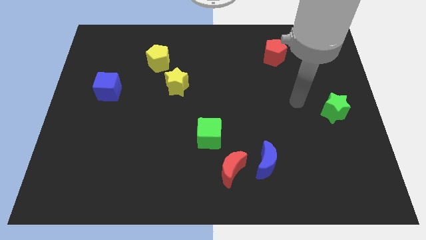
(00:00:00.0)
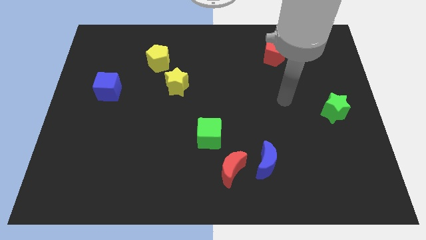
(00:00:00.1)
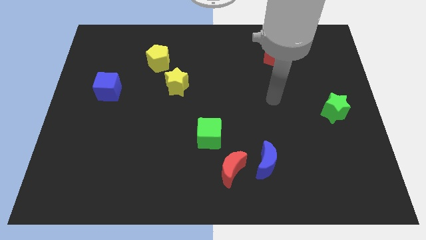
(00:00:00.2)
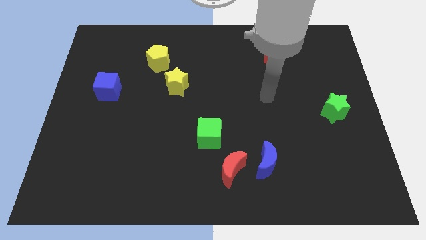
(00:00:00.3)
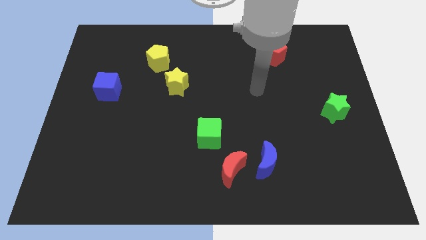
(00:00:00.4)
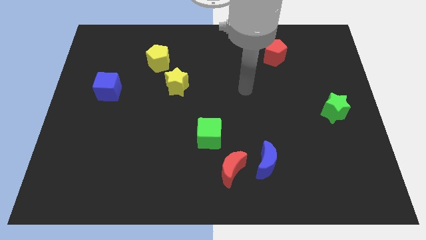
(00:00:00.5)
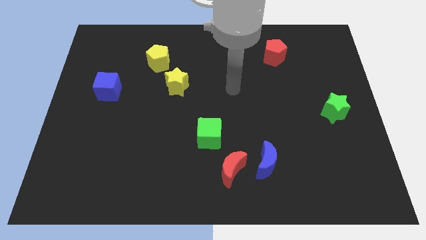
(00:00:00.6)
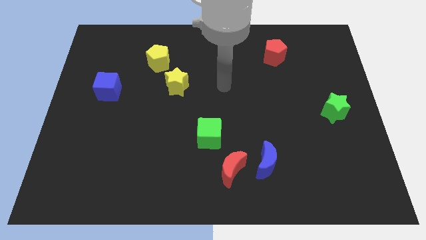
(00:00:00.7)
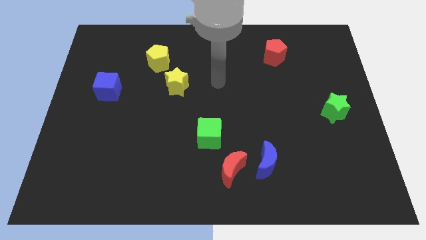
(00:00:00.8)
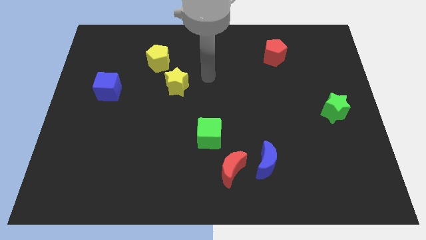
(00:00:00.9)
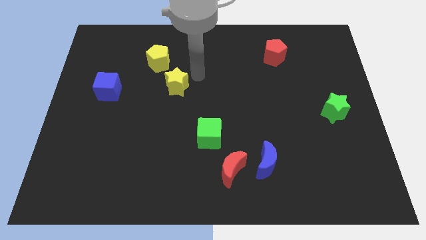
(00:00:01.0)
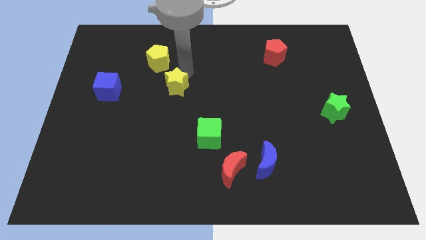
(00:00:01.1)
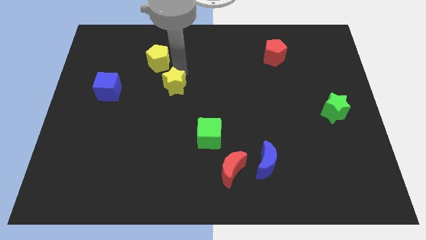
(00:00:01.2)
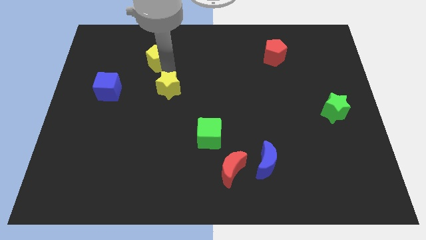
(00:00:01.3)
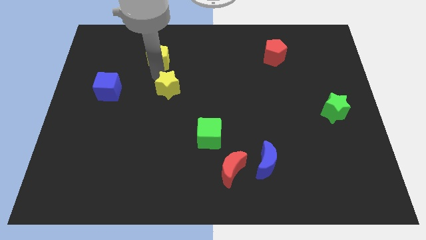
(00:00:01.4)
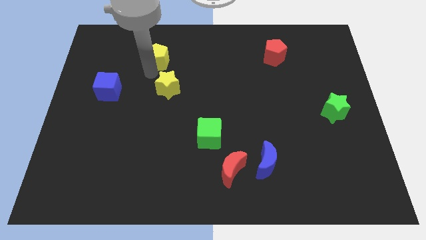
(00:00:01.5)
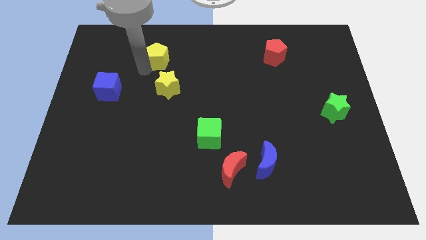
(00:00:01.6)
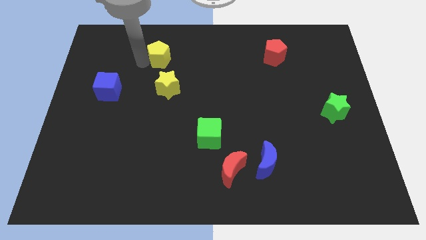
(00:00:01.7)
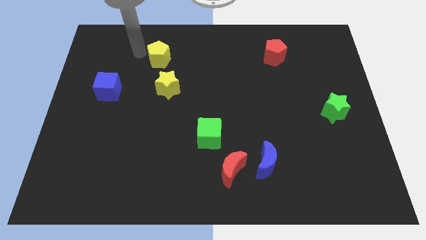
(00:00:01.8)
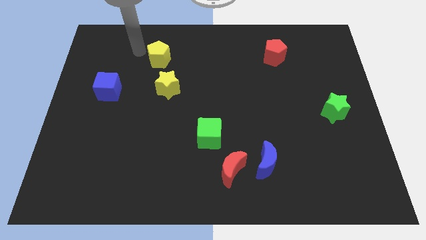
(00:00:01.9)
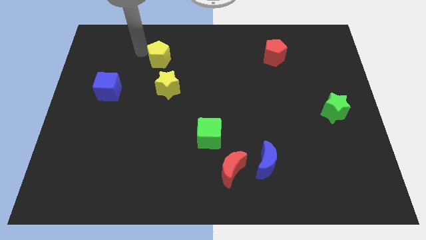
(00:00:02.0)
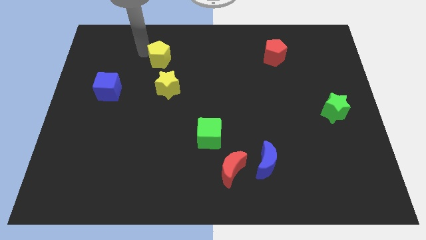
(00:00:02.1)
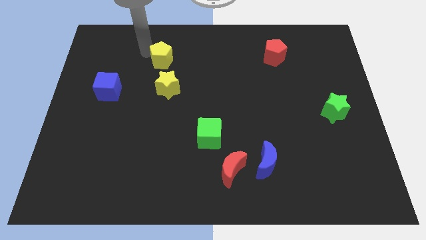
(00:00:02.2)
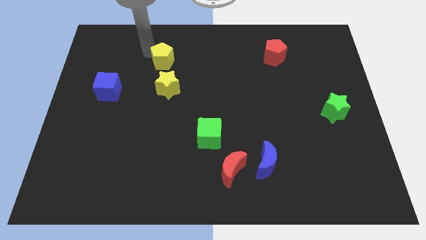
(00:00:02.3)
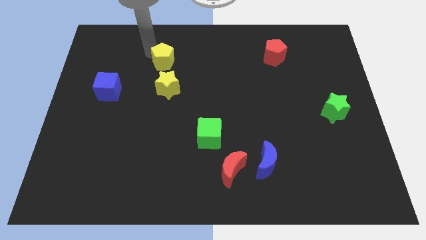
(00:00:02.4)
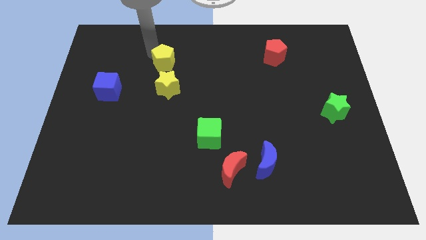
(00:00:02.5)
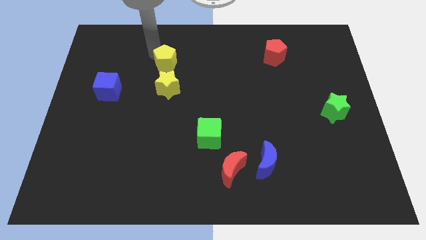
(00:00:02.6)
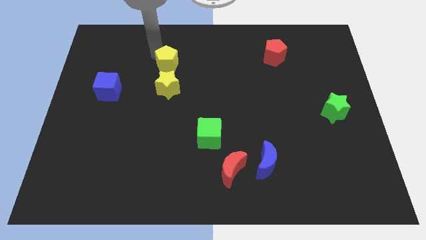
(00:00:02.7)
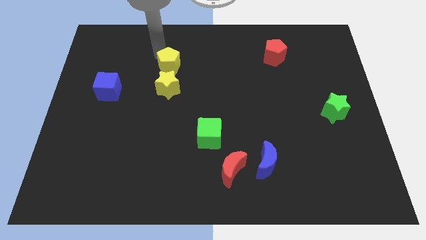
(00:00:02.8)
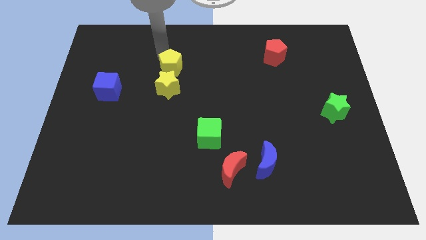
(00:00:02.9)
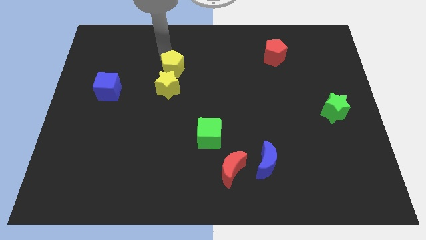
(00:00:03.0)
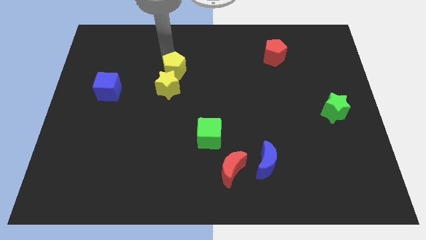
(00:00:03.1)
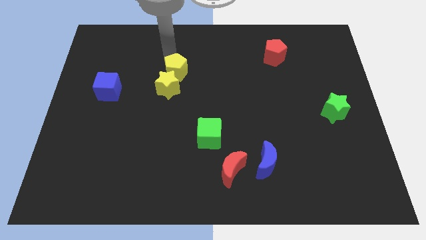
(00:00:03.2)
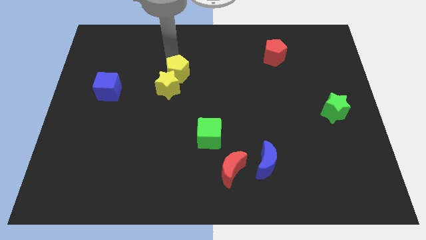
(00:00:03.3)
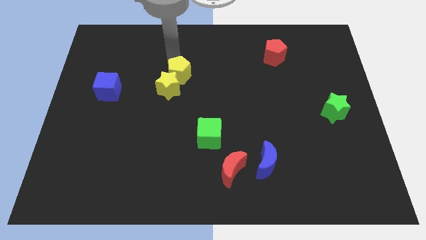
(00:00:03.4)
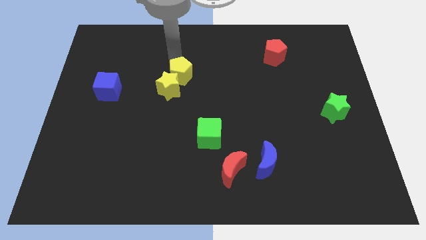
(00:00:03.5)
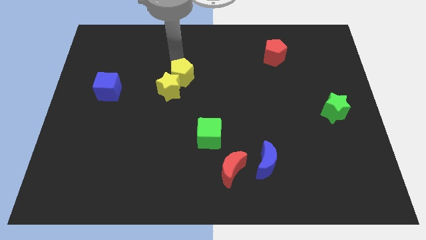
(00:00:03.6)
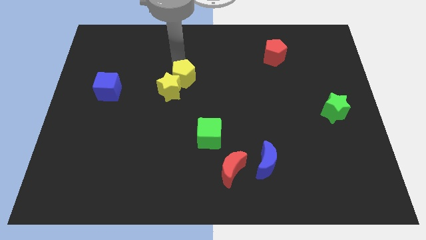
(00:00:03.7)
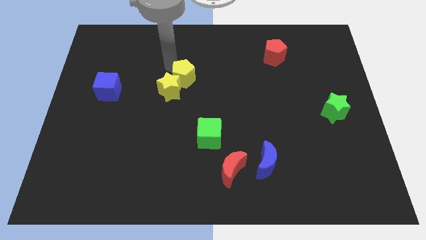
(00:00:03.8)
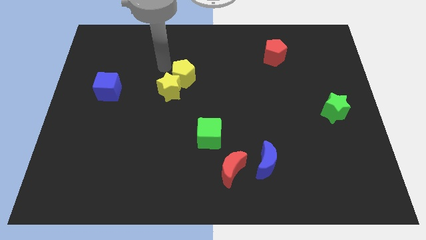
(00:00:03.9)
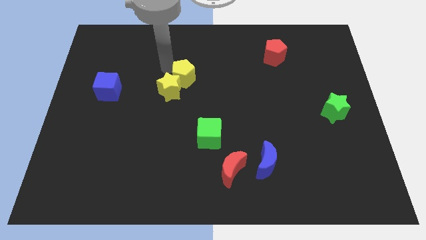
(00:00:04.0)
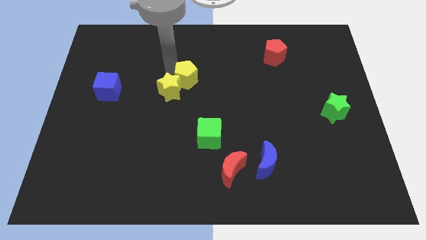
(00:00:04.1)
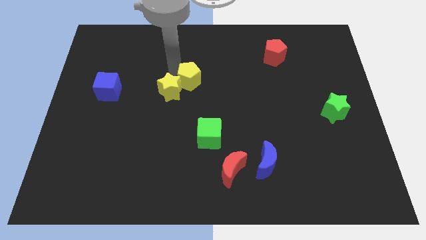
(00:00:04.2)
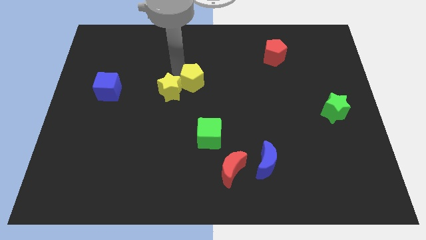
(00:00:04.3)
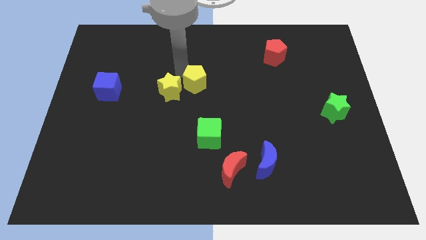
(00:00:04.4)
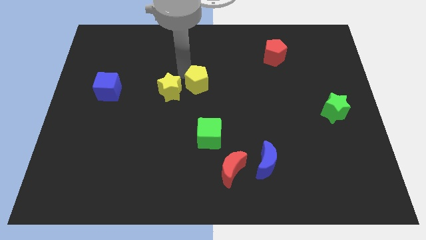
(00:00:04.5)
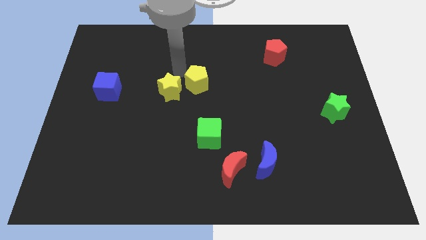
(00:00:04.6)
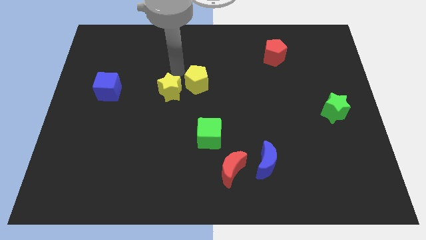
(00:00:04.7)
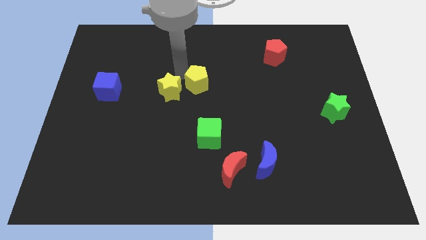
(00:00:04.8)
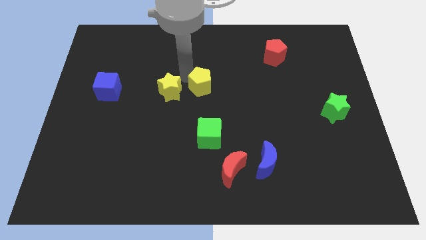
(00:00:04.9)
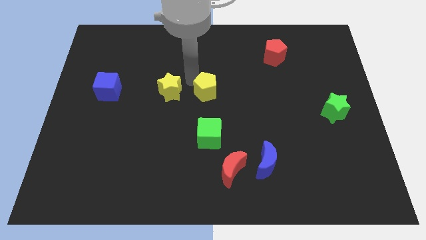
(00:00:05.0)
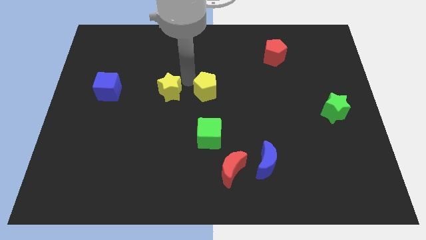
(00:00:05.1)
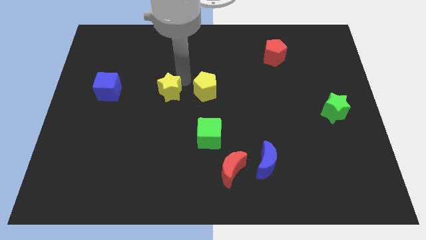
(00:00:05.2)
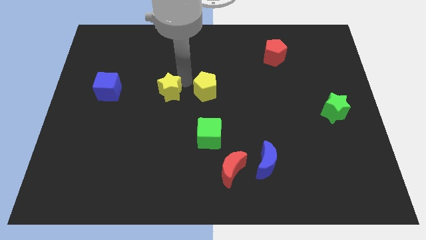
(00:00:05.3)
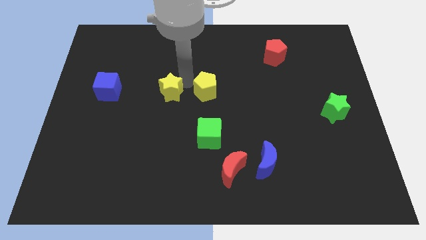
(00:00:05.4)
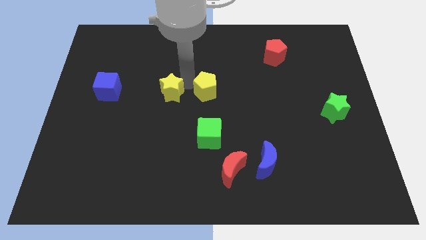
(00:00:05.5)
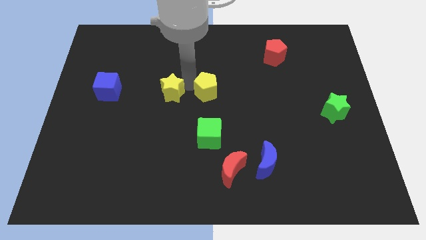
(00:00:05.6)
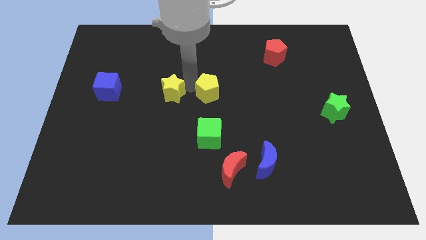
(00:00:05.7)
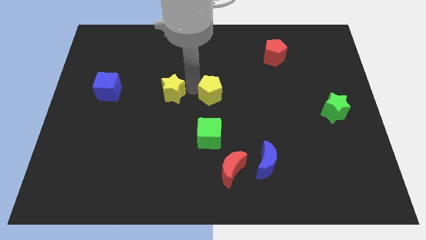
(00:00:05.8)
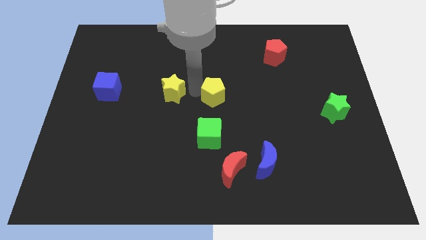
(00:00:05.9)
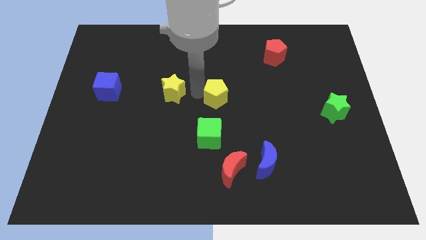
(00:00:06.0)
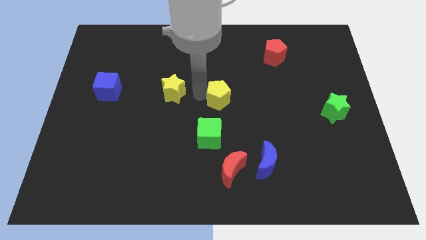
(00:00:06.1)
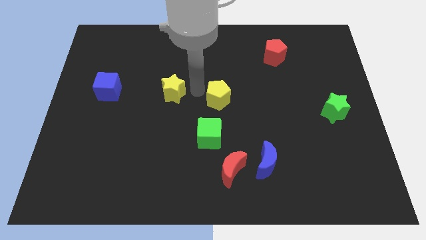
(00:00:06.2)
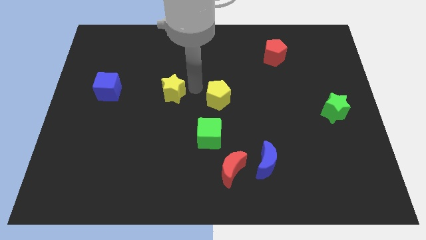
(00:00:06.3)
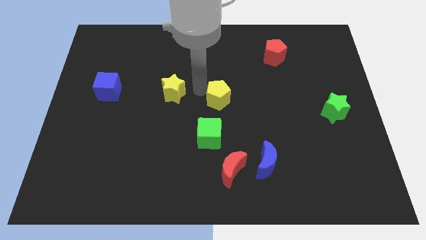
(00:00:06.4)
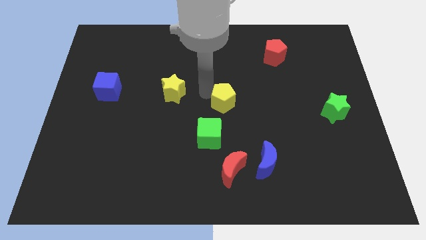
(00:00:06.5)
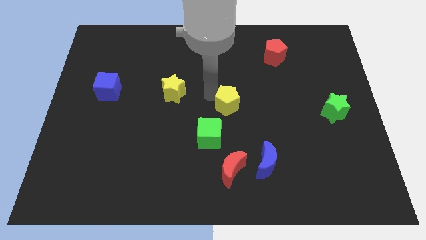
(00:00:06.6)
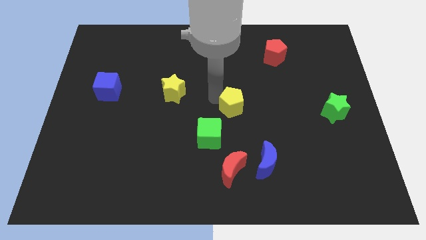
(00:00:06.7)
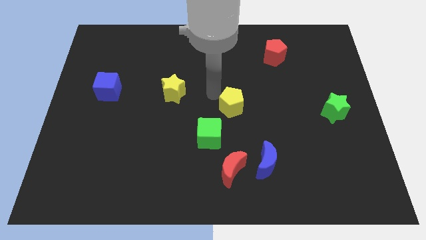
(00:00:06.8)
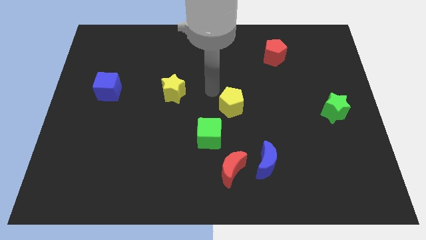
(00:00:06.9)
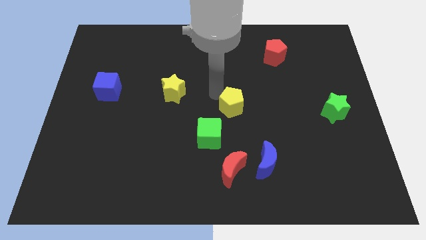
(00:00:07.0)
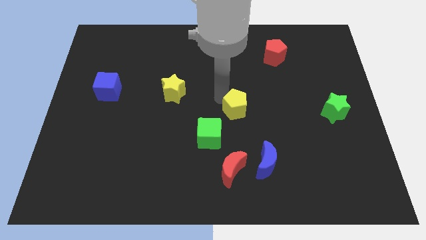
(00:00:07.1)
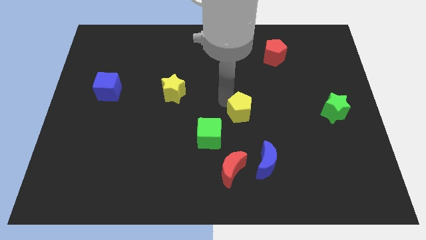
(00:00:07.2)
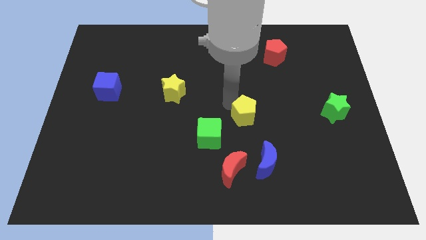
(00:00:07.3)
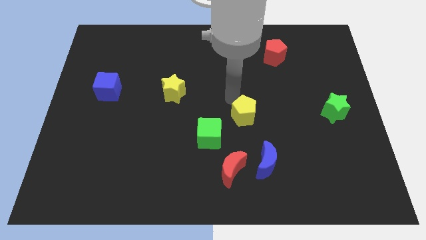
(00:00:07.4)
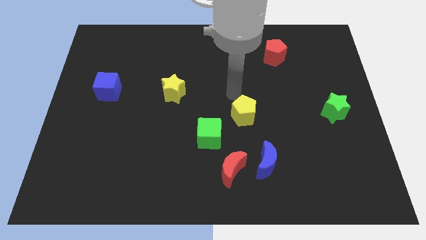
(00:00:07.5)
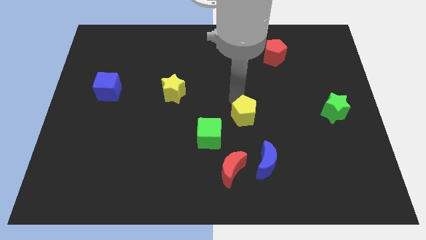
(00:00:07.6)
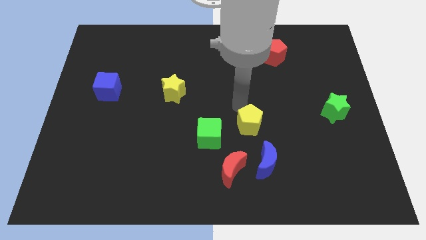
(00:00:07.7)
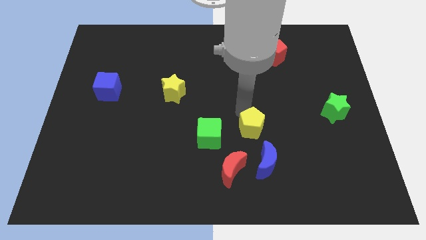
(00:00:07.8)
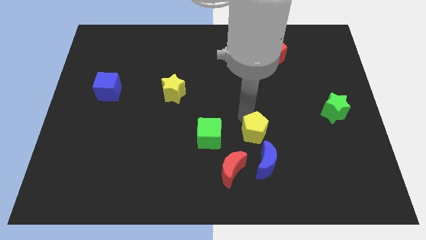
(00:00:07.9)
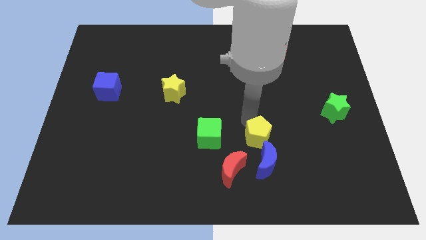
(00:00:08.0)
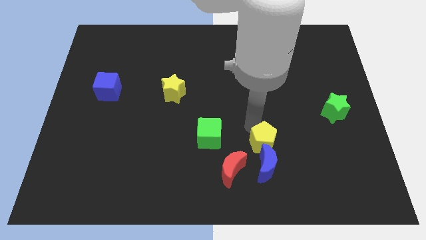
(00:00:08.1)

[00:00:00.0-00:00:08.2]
slide the yellow pentagon towards the blue moon
